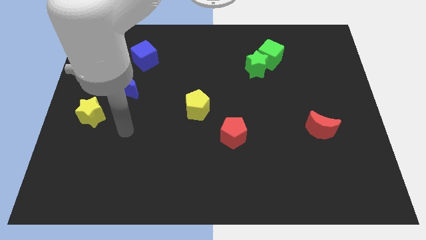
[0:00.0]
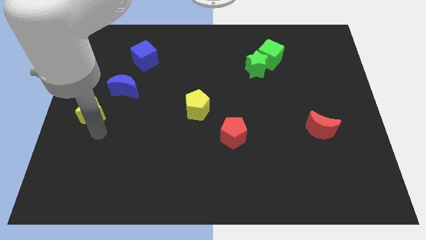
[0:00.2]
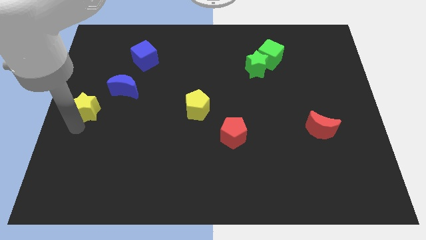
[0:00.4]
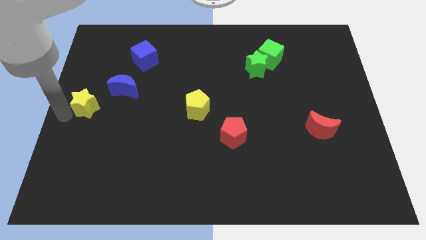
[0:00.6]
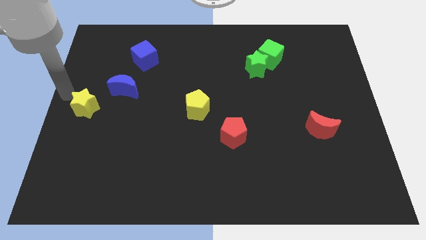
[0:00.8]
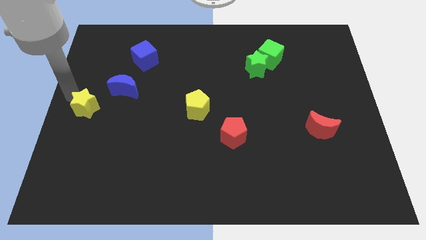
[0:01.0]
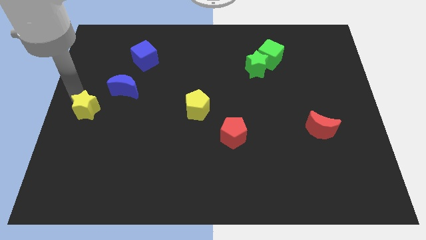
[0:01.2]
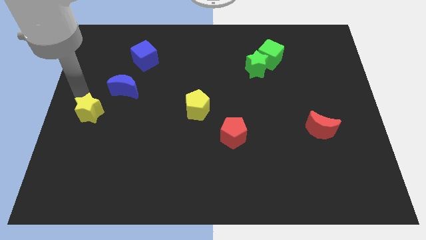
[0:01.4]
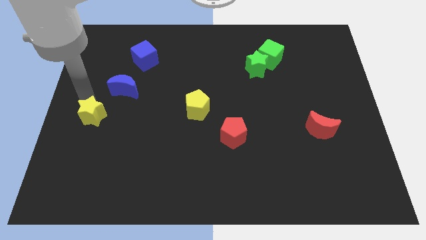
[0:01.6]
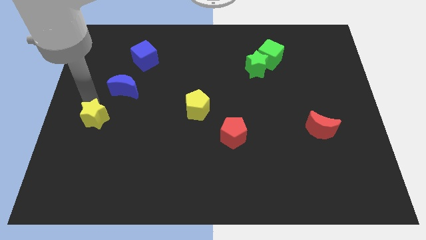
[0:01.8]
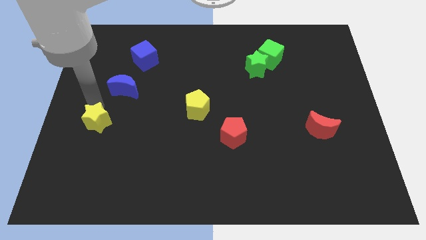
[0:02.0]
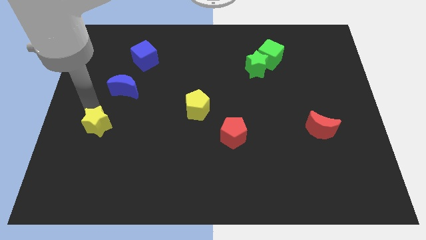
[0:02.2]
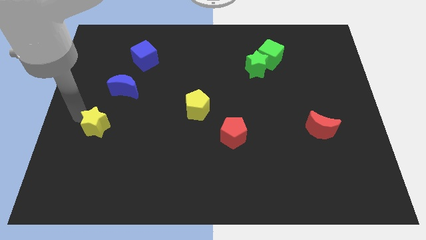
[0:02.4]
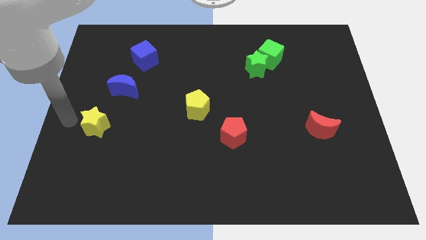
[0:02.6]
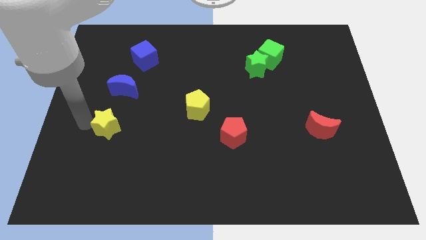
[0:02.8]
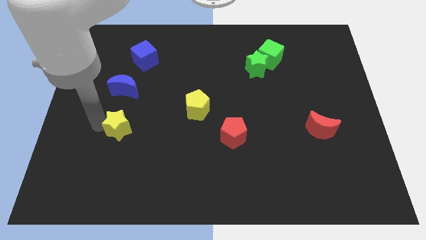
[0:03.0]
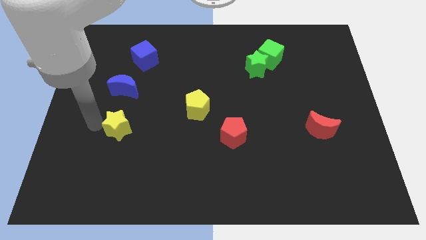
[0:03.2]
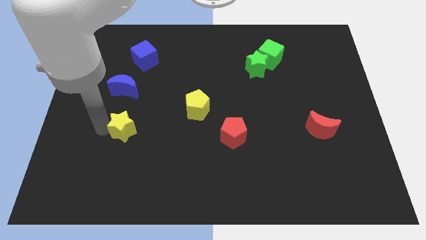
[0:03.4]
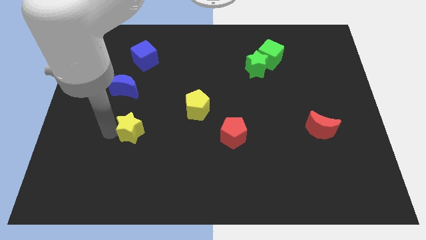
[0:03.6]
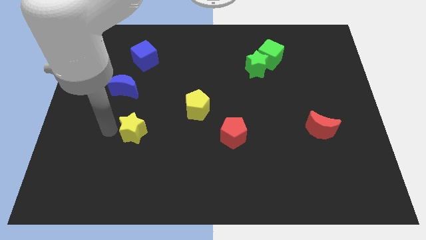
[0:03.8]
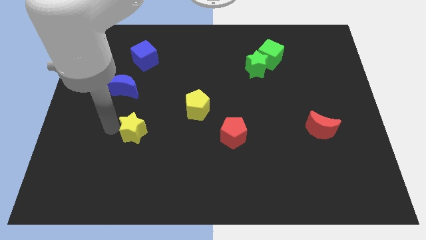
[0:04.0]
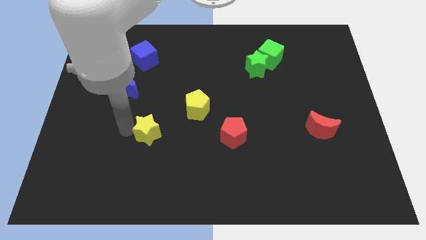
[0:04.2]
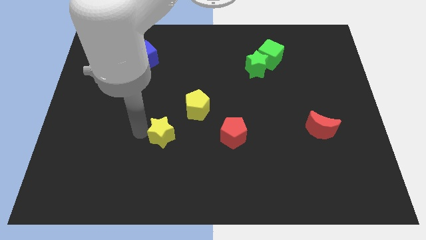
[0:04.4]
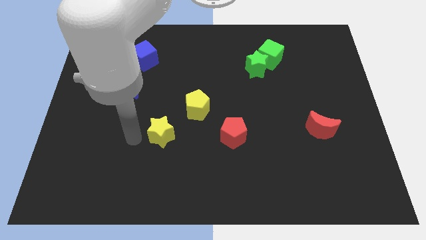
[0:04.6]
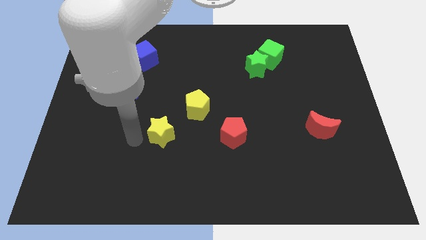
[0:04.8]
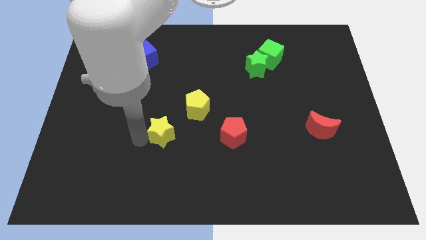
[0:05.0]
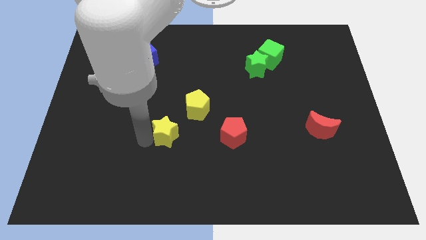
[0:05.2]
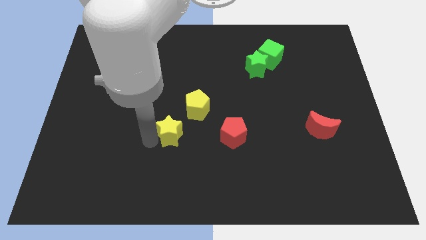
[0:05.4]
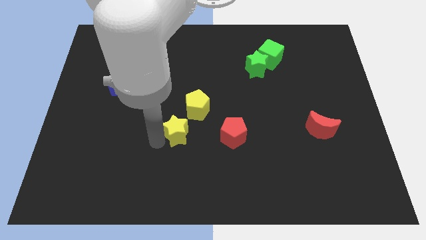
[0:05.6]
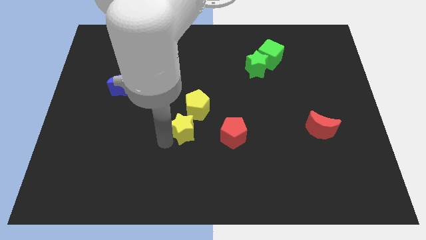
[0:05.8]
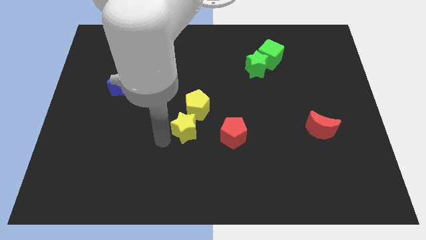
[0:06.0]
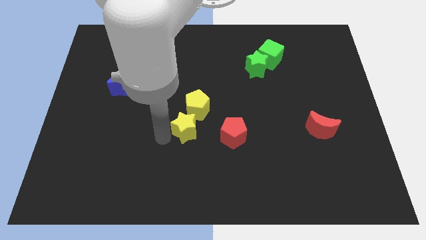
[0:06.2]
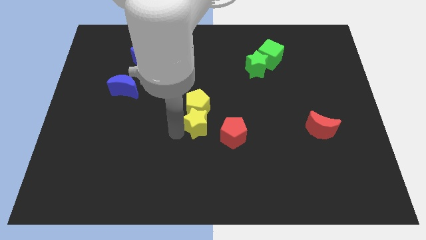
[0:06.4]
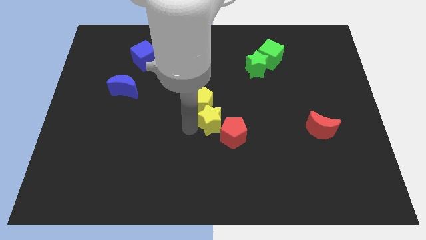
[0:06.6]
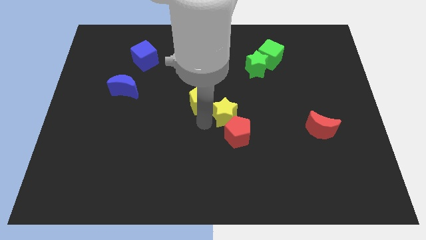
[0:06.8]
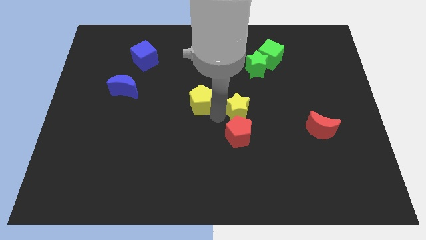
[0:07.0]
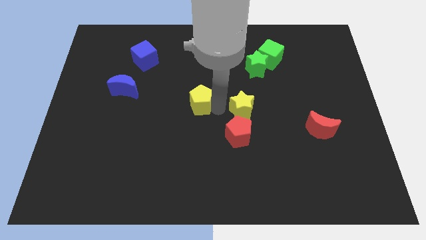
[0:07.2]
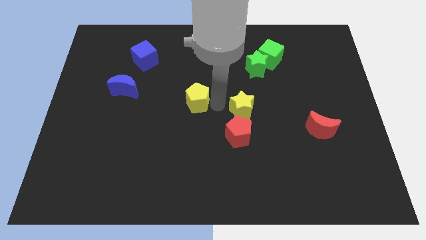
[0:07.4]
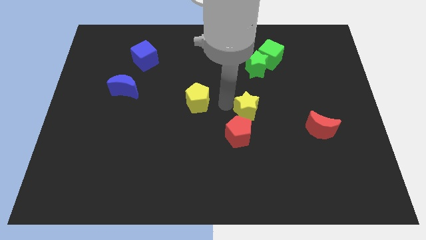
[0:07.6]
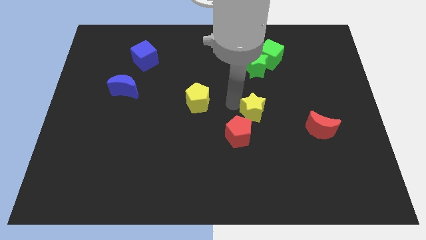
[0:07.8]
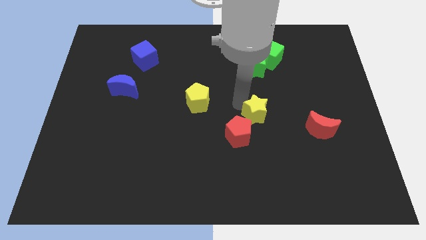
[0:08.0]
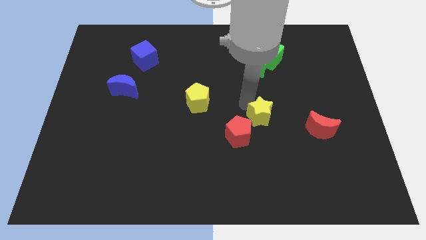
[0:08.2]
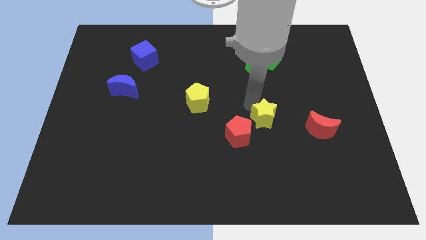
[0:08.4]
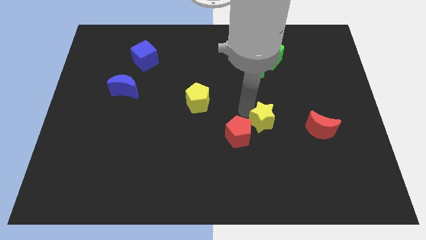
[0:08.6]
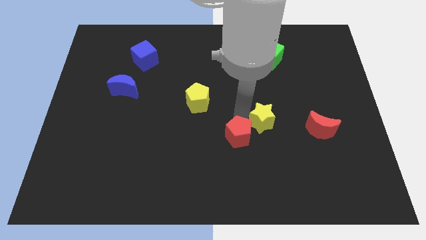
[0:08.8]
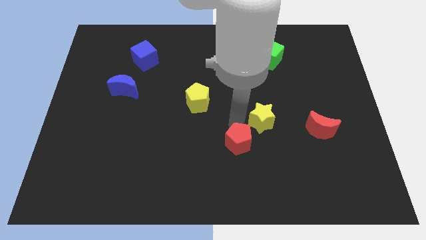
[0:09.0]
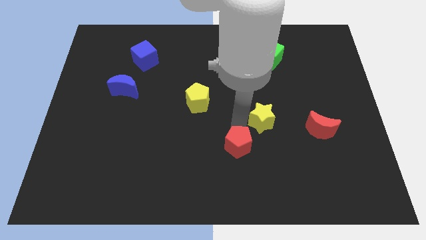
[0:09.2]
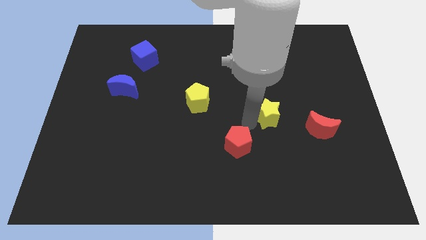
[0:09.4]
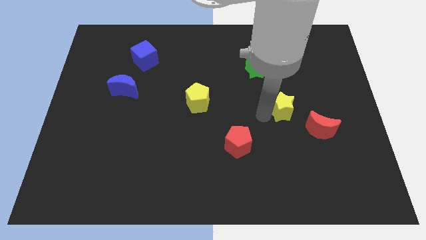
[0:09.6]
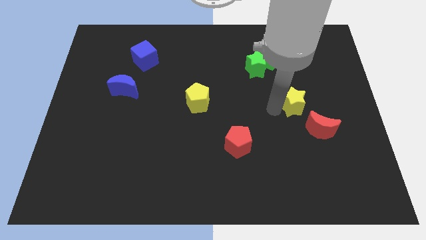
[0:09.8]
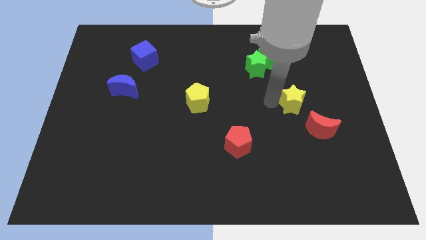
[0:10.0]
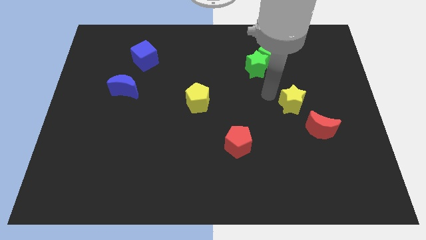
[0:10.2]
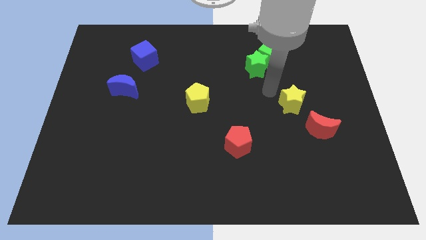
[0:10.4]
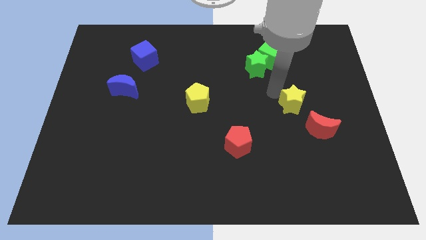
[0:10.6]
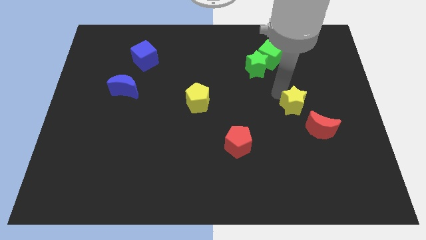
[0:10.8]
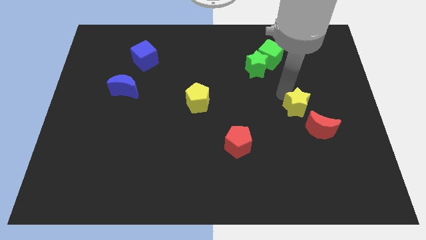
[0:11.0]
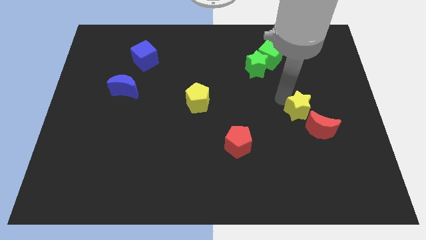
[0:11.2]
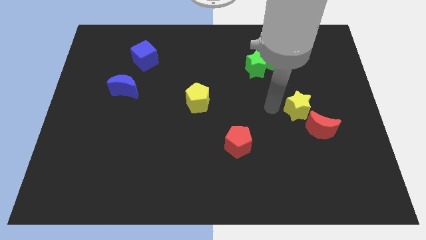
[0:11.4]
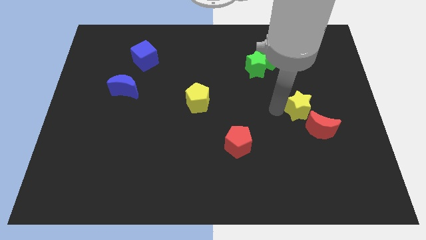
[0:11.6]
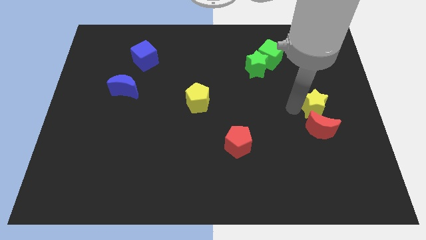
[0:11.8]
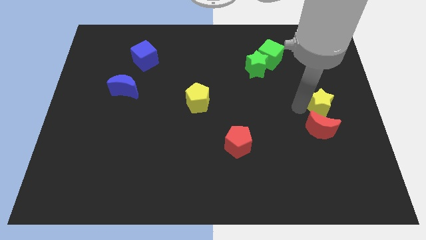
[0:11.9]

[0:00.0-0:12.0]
push the yellow star to the center right

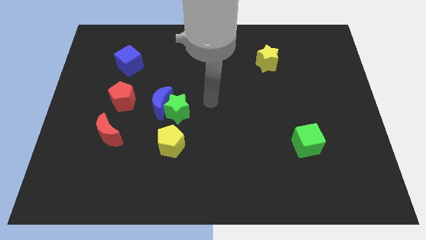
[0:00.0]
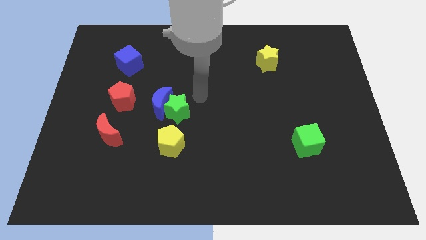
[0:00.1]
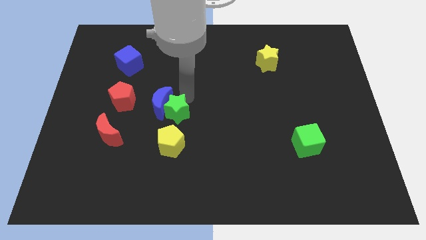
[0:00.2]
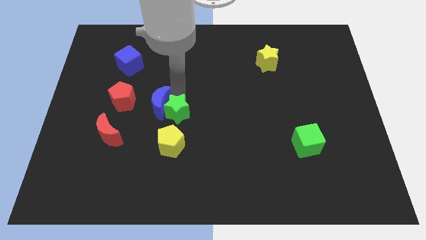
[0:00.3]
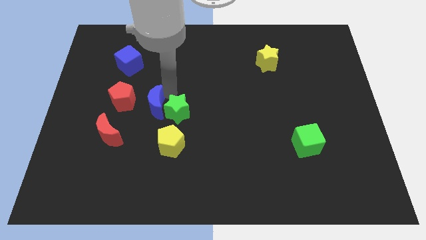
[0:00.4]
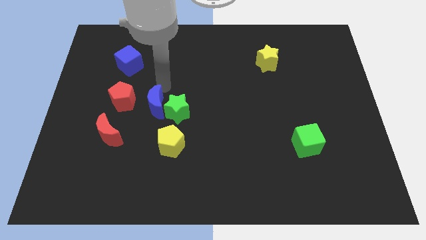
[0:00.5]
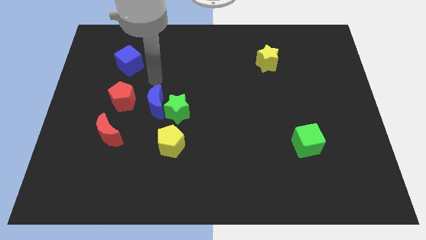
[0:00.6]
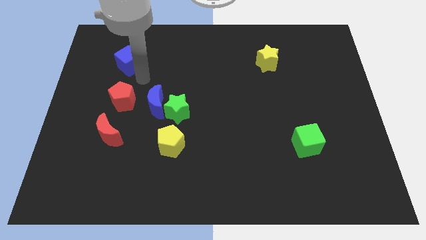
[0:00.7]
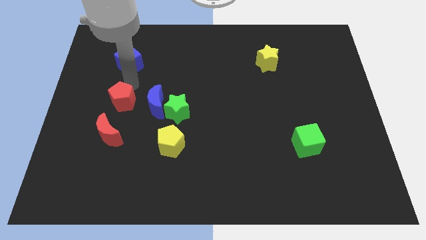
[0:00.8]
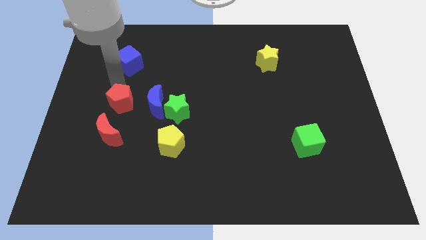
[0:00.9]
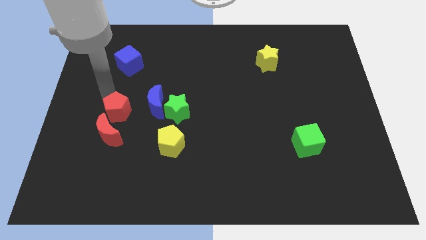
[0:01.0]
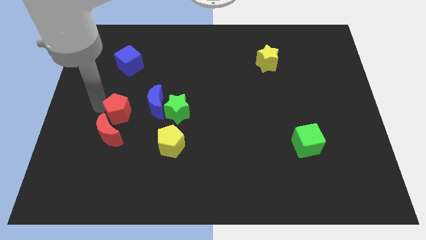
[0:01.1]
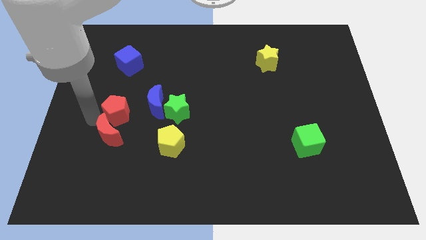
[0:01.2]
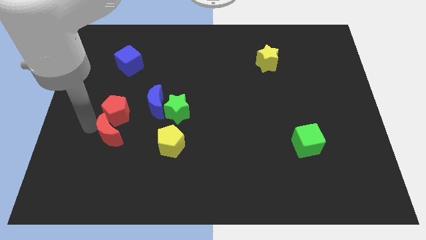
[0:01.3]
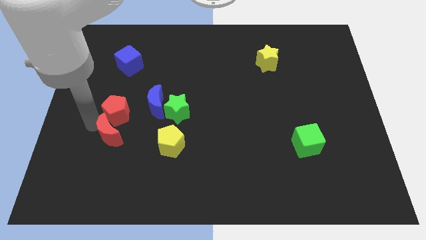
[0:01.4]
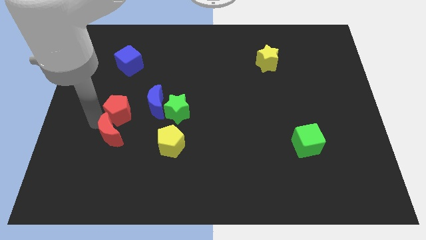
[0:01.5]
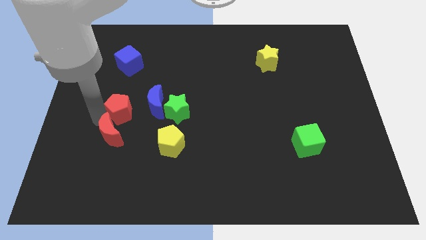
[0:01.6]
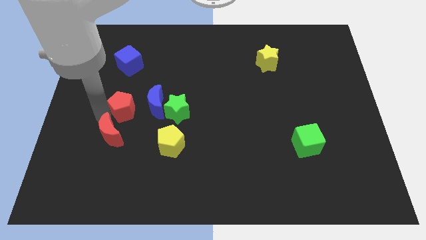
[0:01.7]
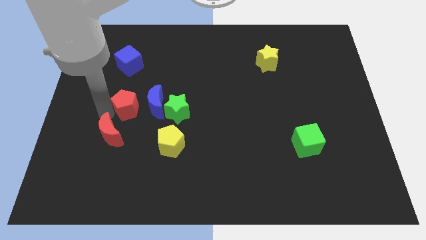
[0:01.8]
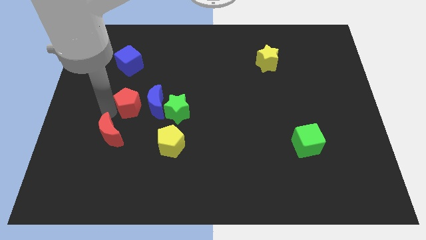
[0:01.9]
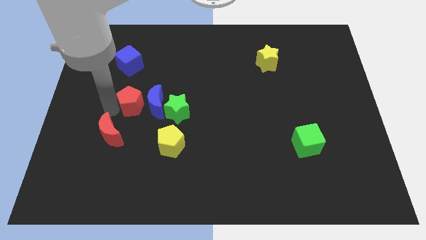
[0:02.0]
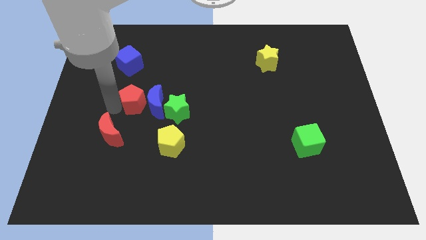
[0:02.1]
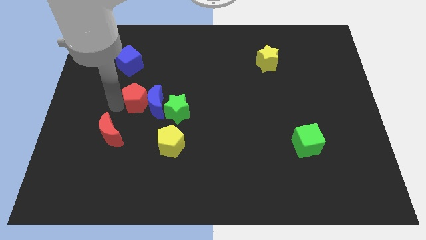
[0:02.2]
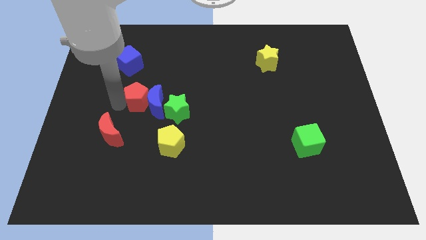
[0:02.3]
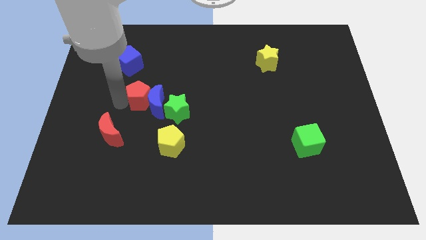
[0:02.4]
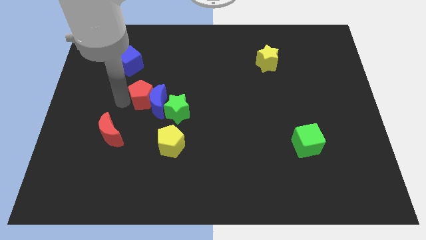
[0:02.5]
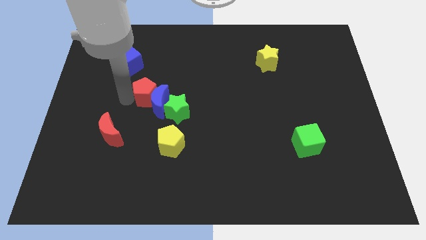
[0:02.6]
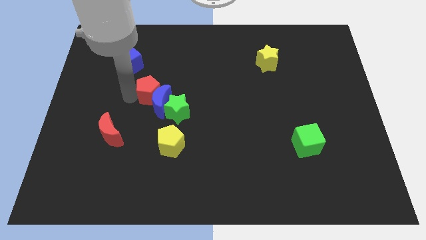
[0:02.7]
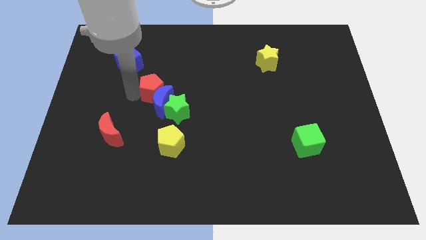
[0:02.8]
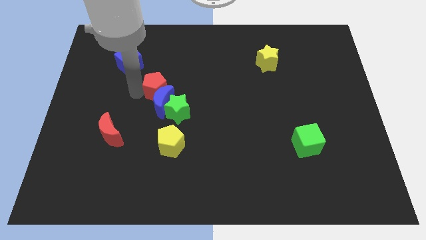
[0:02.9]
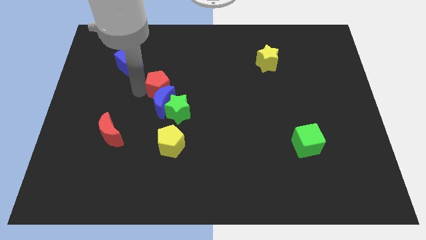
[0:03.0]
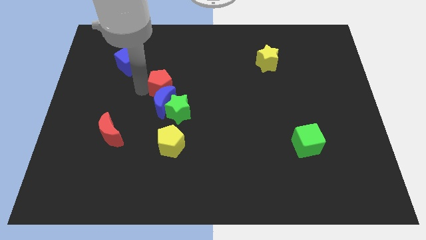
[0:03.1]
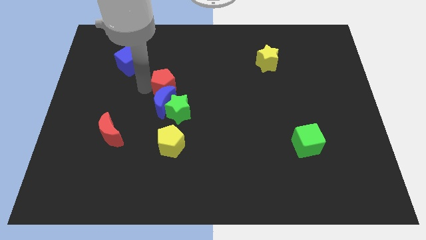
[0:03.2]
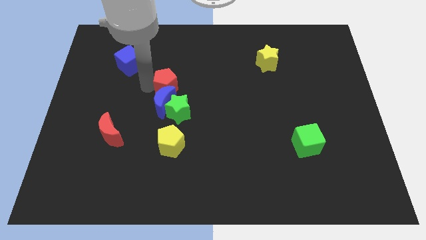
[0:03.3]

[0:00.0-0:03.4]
push the red pentagon to the center of the board
